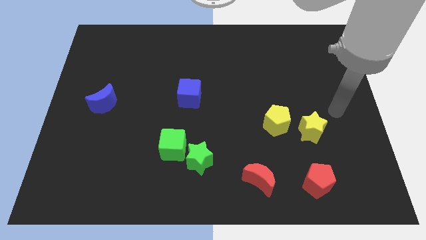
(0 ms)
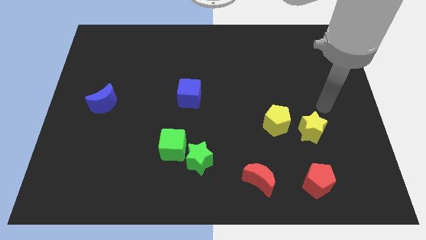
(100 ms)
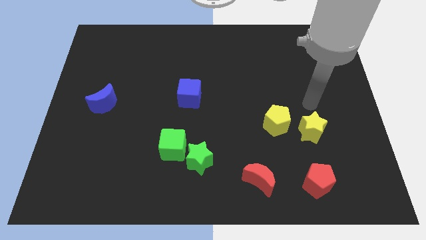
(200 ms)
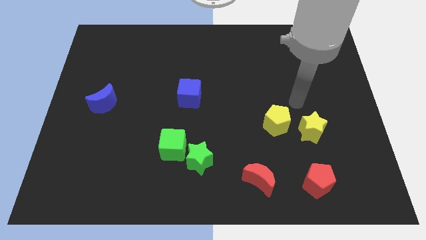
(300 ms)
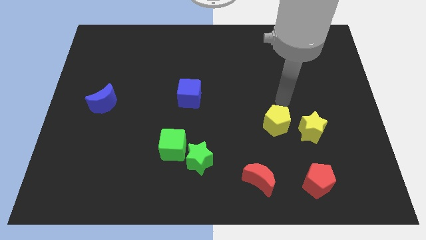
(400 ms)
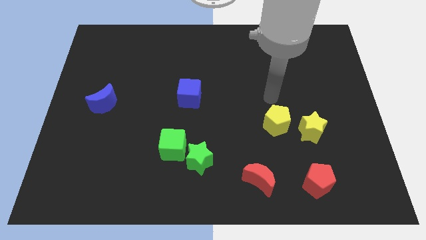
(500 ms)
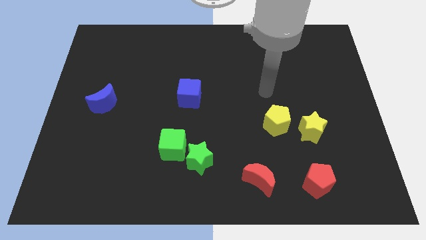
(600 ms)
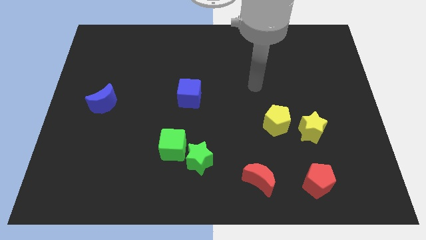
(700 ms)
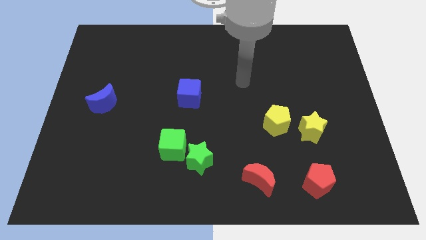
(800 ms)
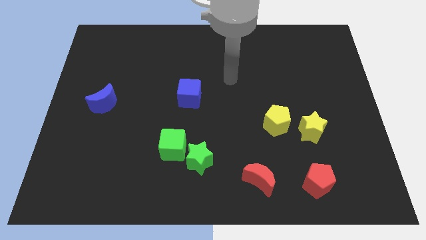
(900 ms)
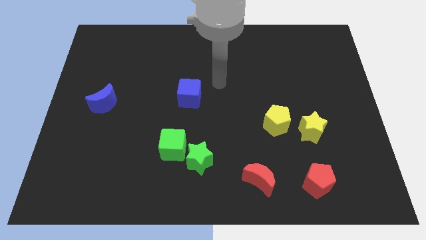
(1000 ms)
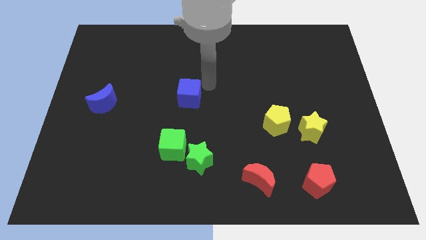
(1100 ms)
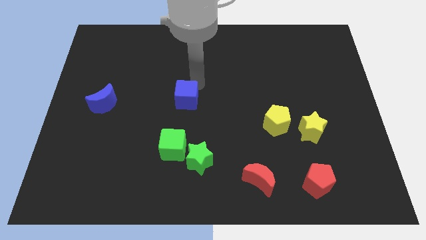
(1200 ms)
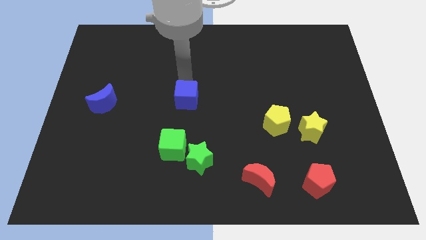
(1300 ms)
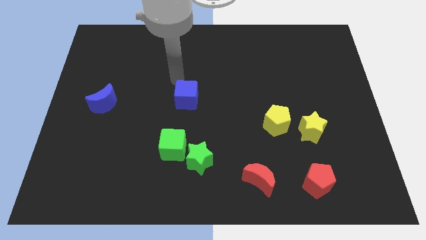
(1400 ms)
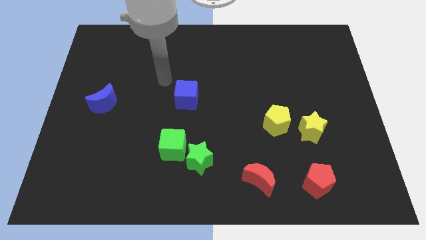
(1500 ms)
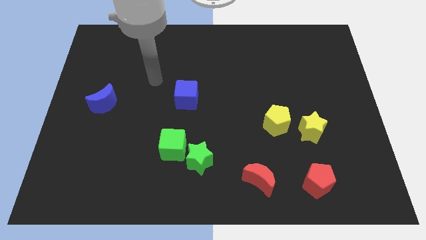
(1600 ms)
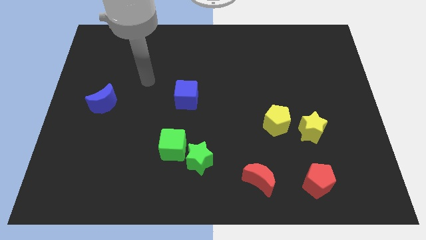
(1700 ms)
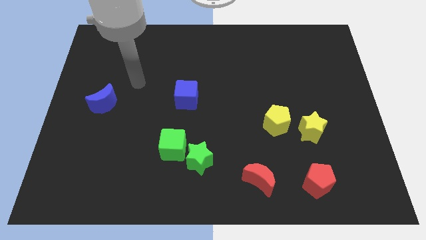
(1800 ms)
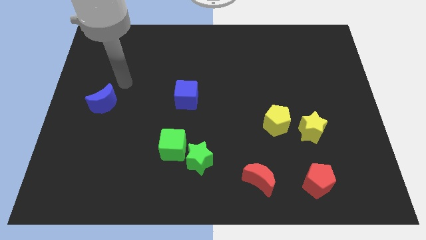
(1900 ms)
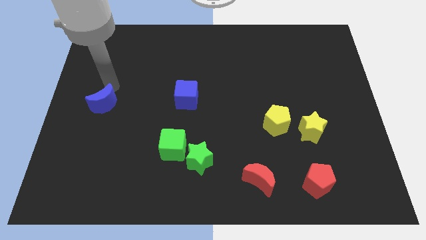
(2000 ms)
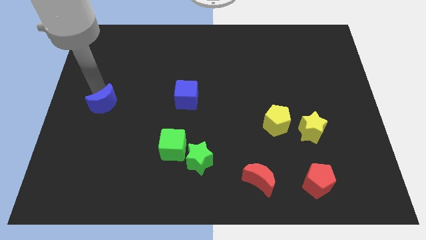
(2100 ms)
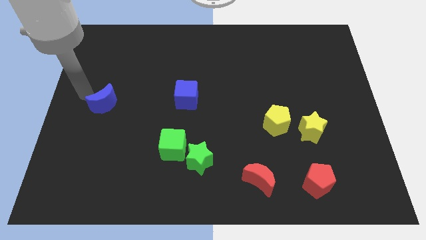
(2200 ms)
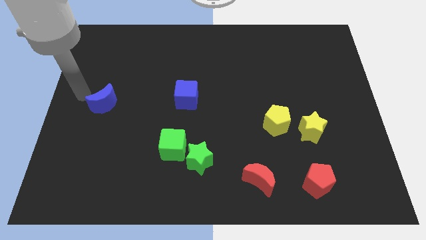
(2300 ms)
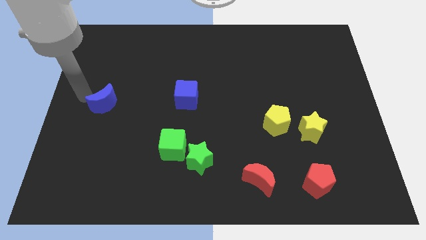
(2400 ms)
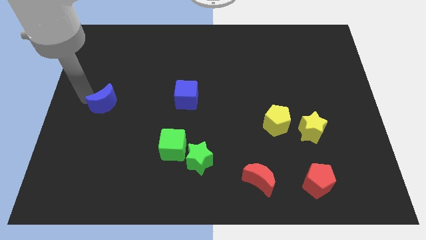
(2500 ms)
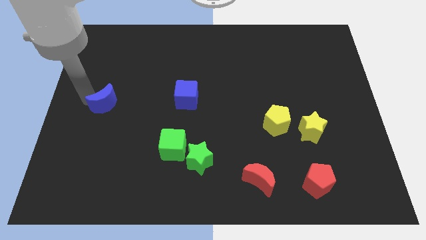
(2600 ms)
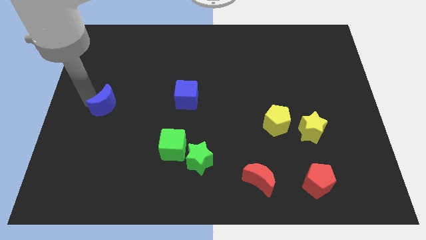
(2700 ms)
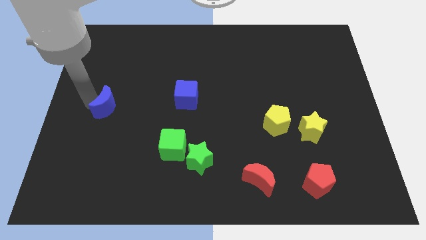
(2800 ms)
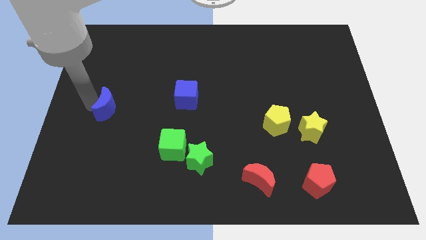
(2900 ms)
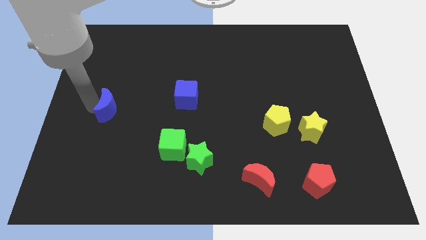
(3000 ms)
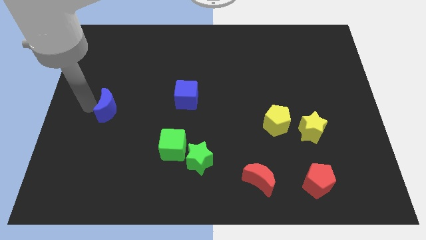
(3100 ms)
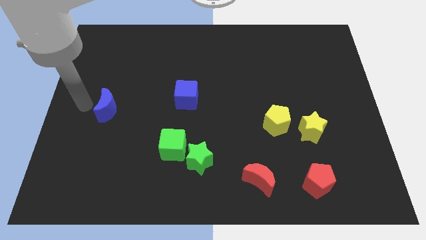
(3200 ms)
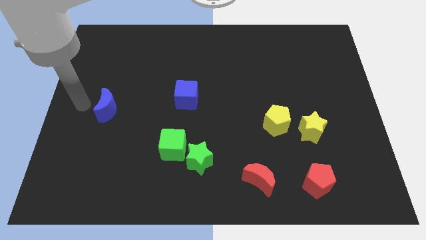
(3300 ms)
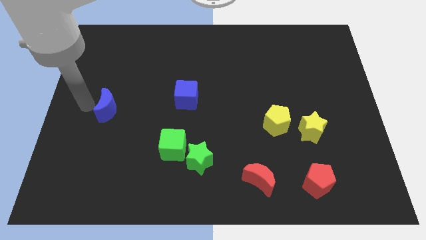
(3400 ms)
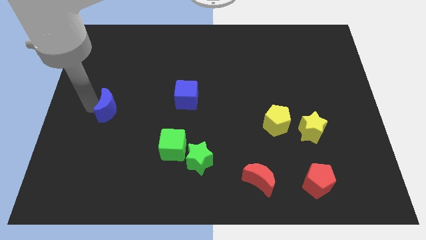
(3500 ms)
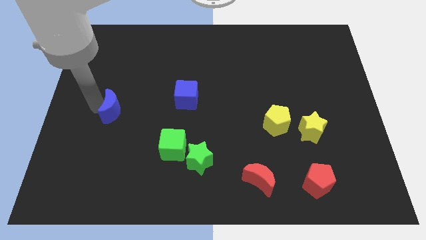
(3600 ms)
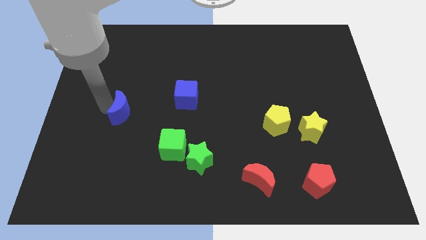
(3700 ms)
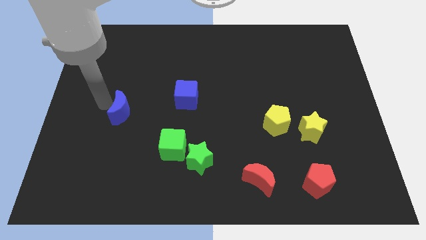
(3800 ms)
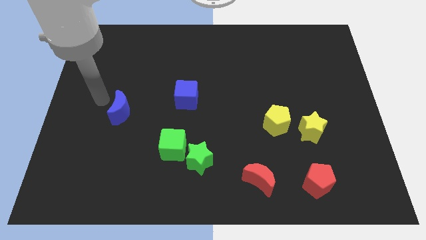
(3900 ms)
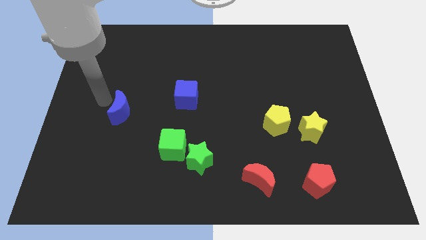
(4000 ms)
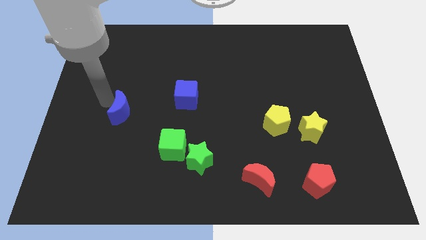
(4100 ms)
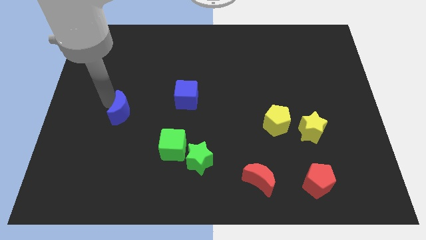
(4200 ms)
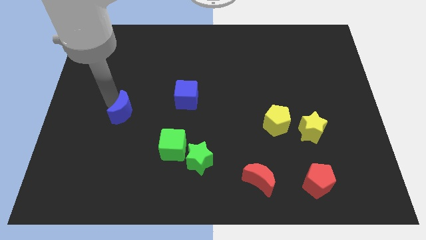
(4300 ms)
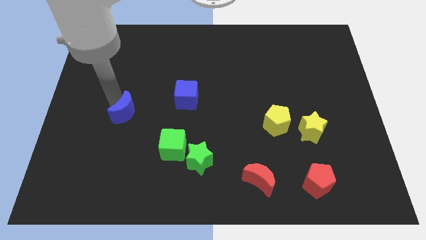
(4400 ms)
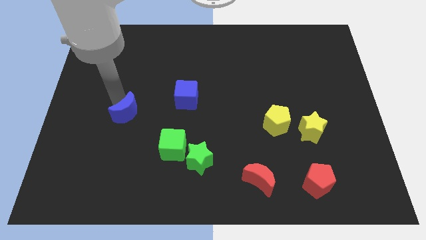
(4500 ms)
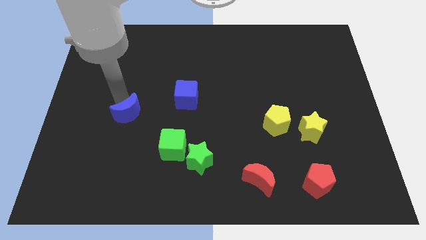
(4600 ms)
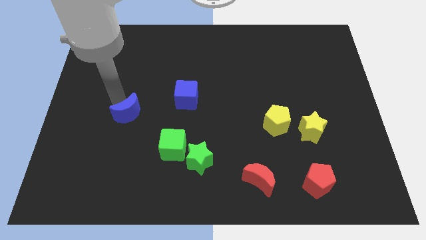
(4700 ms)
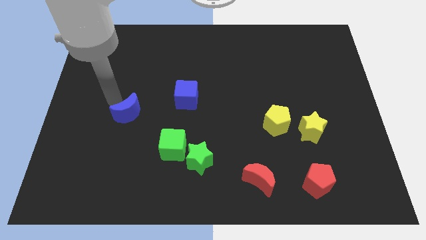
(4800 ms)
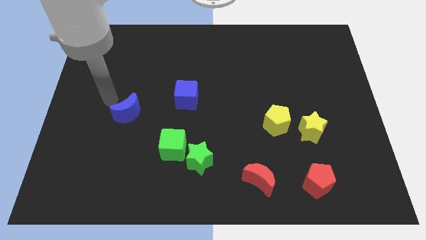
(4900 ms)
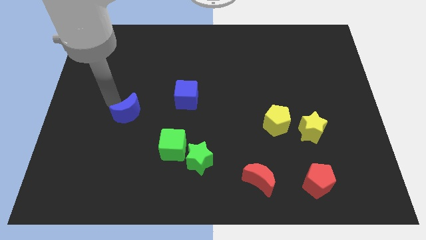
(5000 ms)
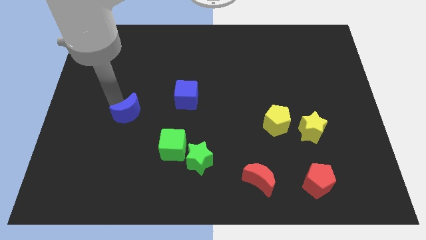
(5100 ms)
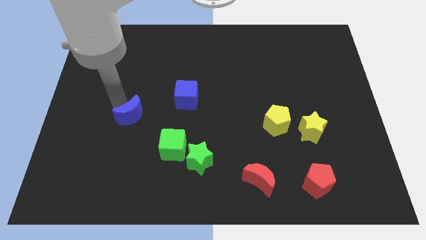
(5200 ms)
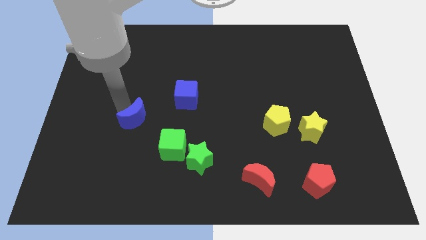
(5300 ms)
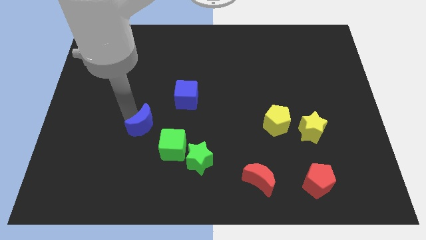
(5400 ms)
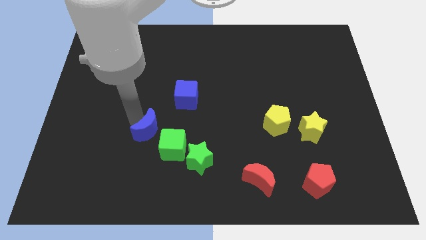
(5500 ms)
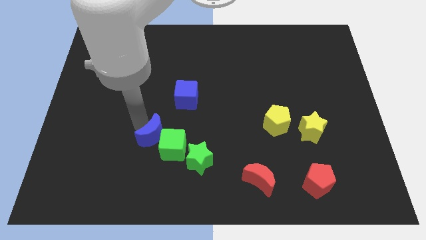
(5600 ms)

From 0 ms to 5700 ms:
slide the blue moon diagonally up and to the left of the green star

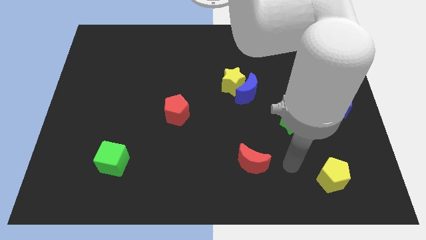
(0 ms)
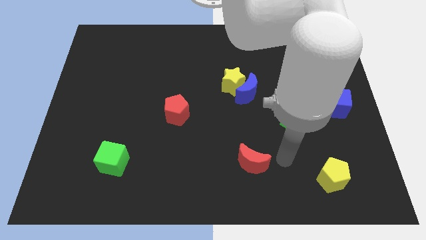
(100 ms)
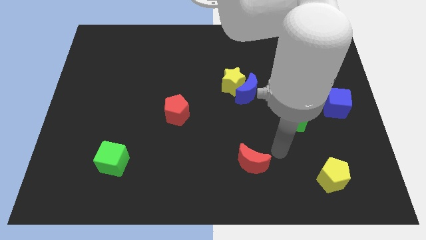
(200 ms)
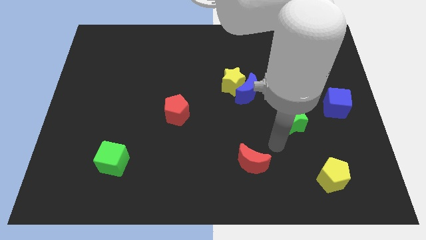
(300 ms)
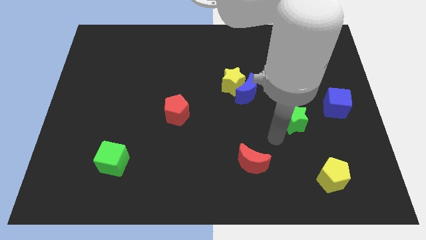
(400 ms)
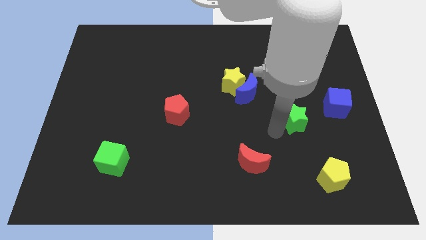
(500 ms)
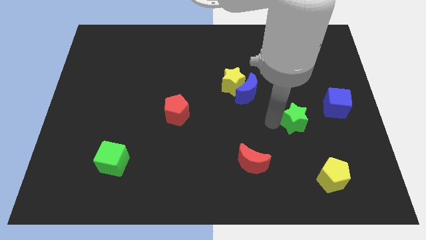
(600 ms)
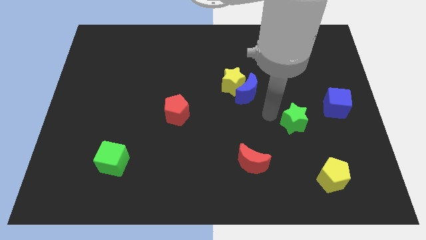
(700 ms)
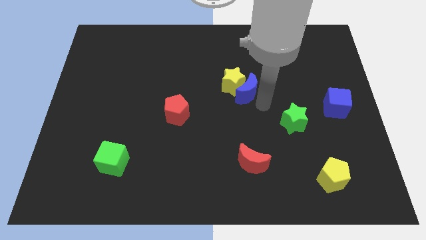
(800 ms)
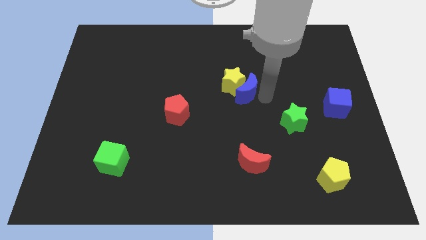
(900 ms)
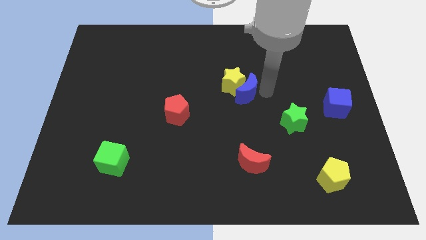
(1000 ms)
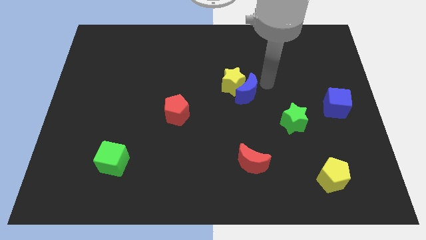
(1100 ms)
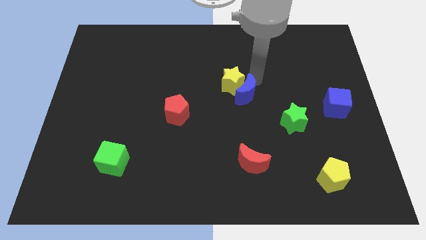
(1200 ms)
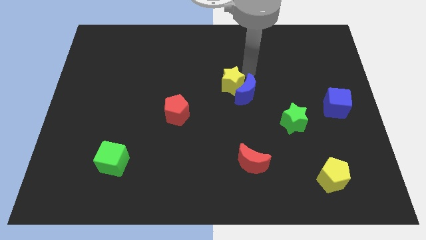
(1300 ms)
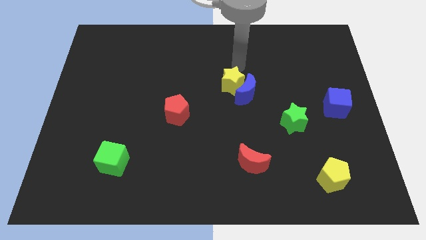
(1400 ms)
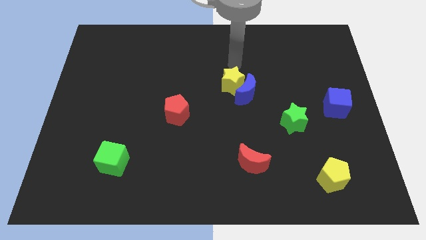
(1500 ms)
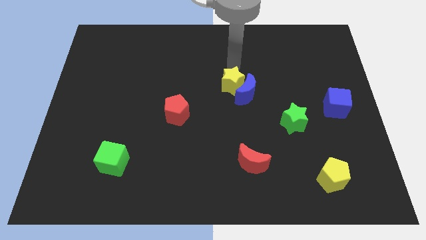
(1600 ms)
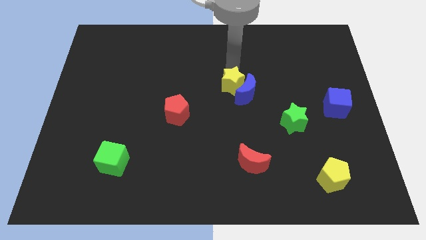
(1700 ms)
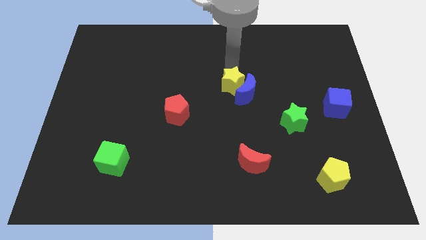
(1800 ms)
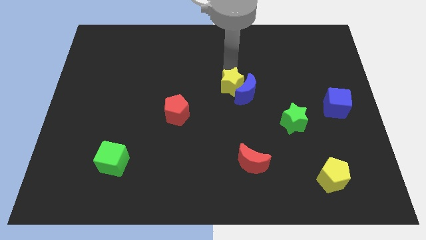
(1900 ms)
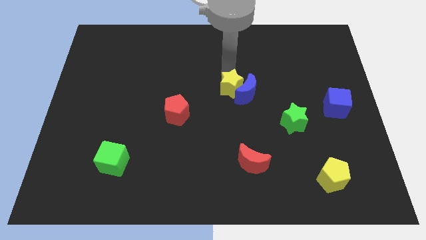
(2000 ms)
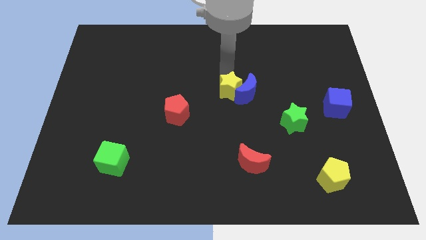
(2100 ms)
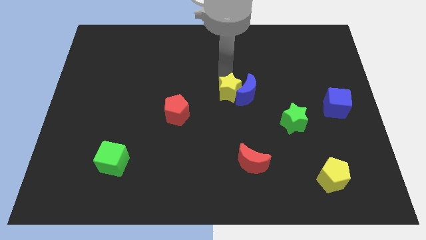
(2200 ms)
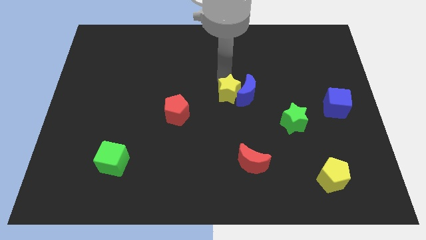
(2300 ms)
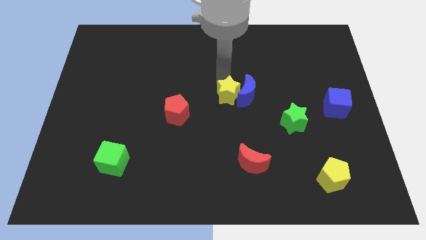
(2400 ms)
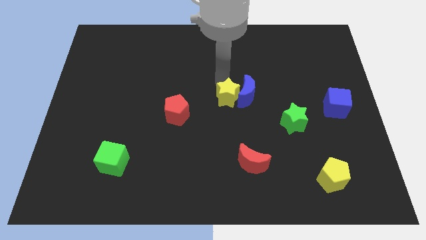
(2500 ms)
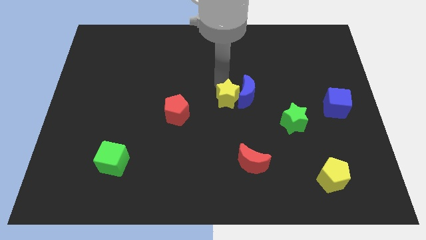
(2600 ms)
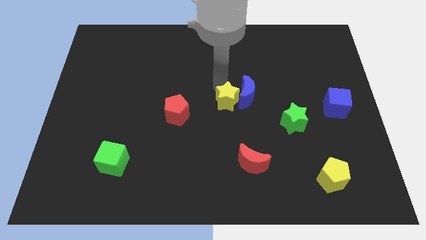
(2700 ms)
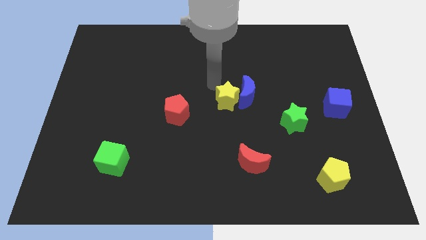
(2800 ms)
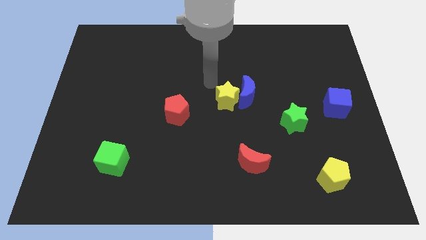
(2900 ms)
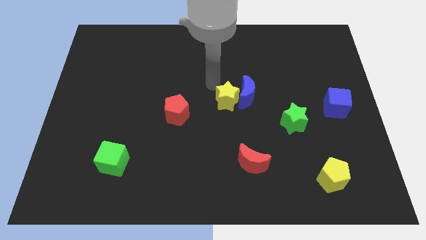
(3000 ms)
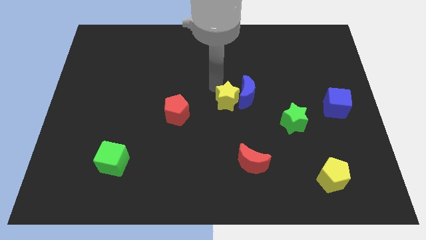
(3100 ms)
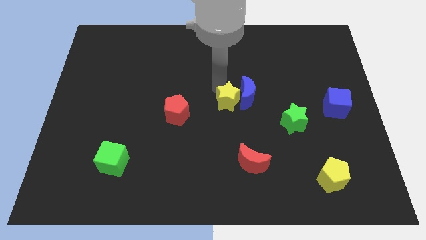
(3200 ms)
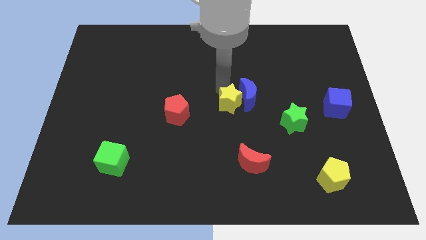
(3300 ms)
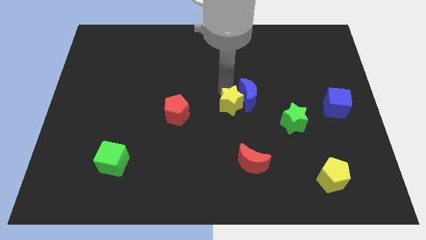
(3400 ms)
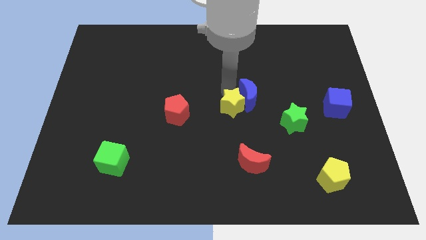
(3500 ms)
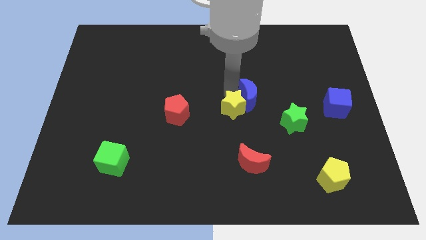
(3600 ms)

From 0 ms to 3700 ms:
move the yellow star to the top of the red moon
